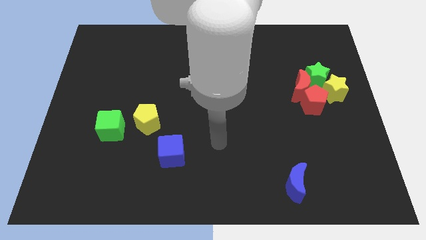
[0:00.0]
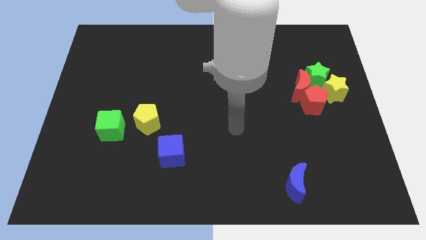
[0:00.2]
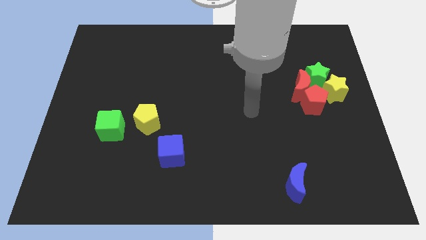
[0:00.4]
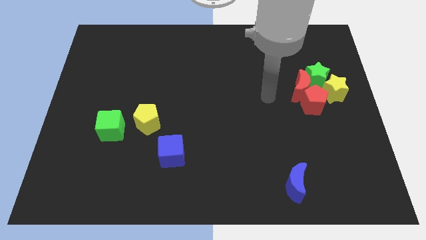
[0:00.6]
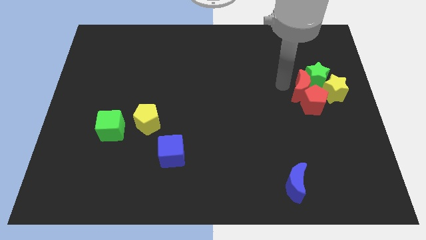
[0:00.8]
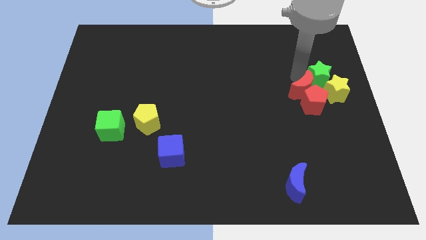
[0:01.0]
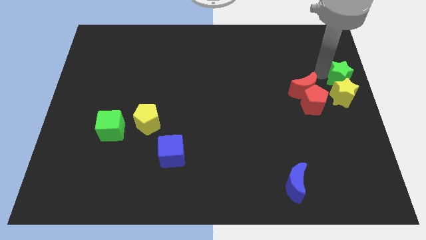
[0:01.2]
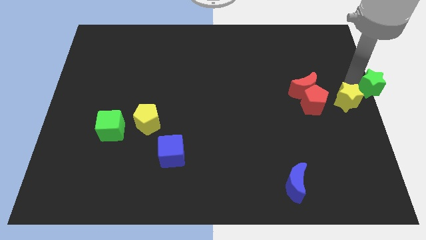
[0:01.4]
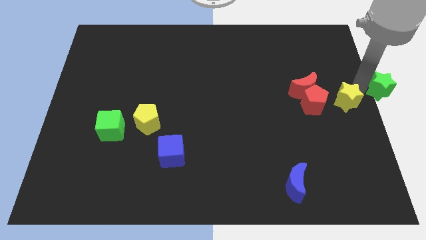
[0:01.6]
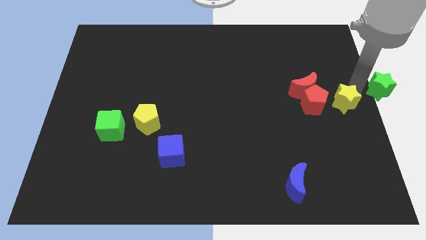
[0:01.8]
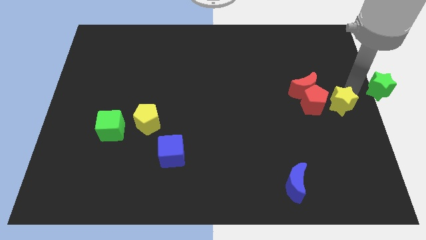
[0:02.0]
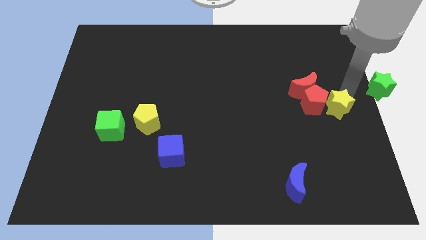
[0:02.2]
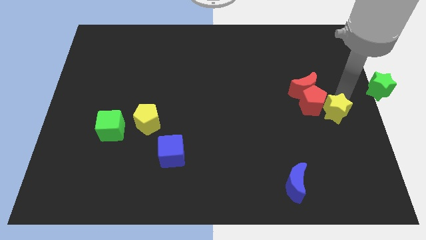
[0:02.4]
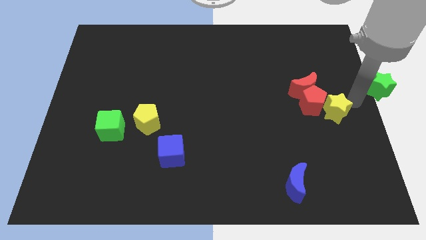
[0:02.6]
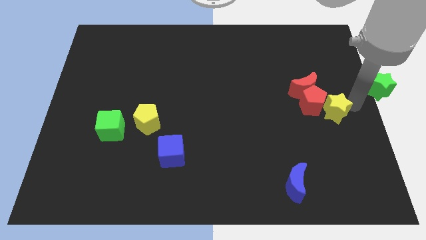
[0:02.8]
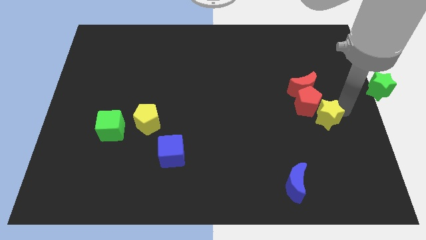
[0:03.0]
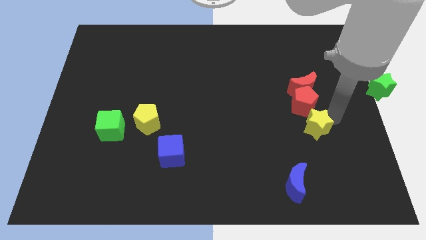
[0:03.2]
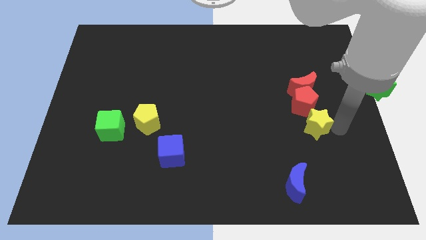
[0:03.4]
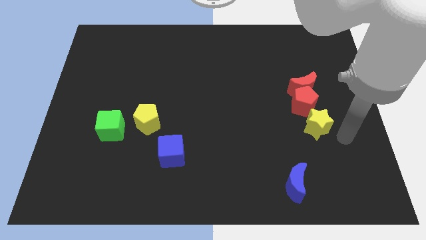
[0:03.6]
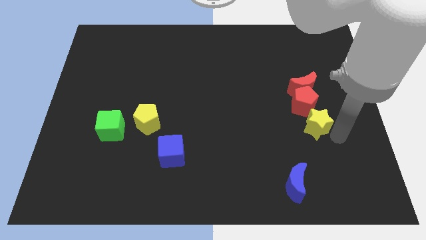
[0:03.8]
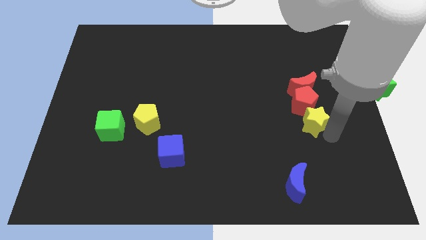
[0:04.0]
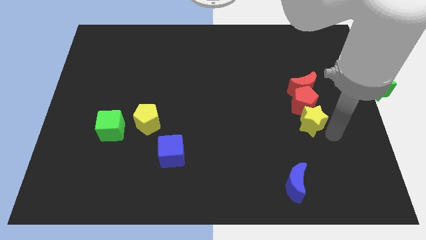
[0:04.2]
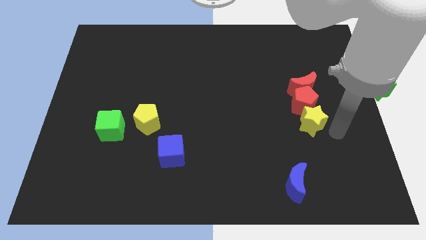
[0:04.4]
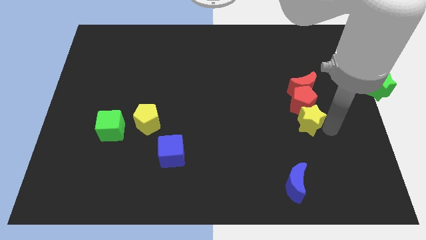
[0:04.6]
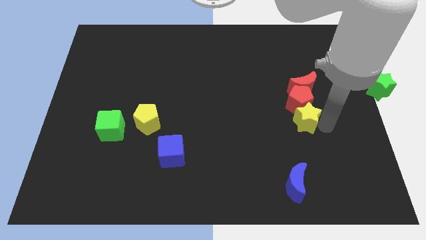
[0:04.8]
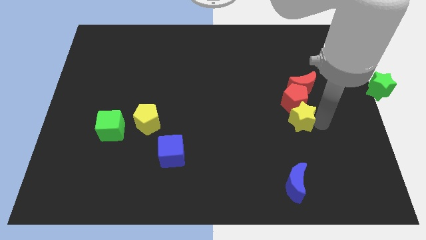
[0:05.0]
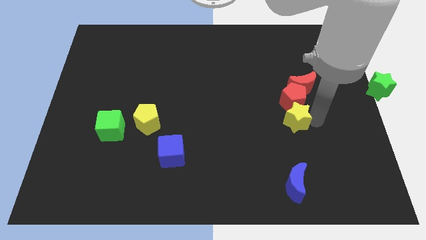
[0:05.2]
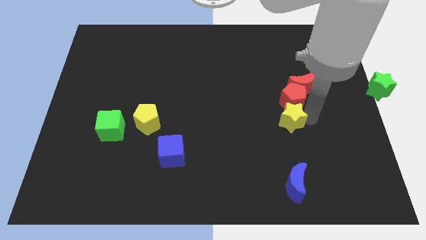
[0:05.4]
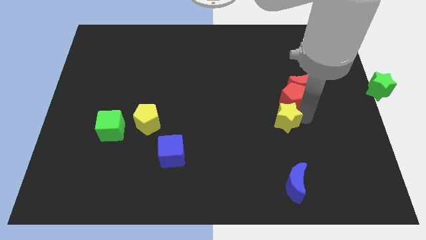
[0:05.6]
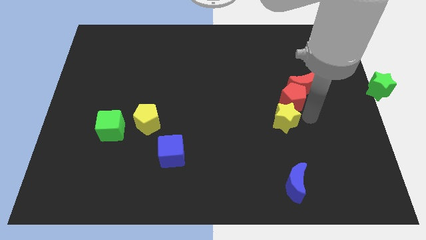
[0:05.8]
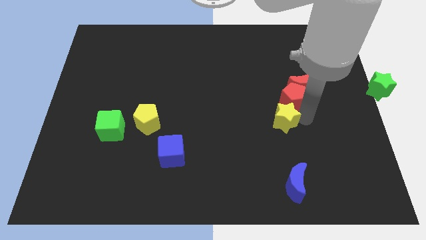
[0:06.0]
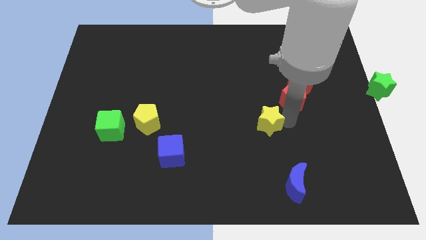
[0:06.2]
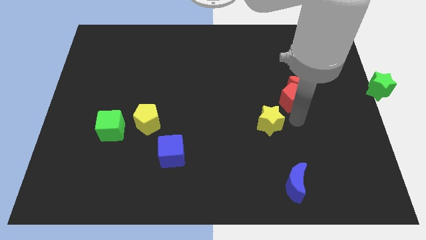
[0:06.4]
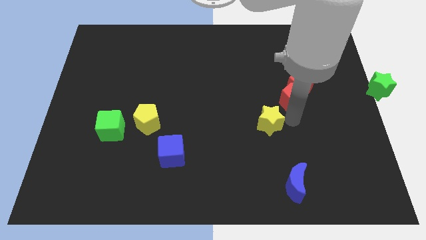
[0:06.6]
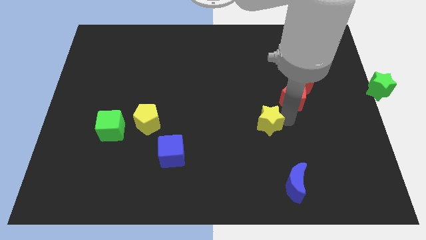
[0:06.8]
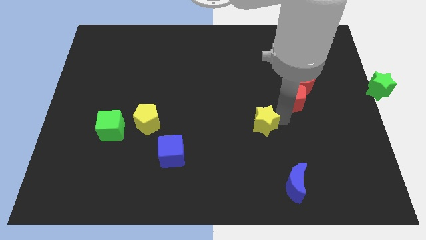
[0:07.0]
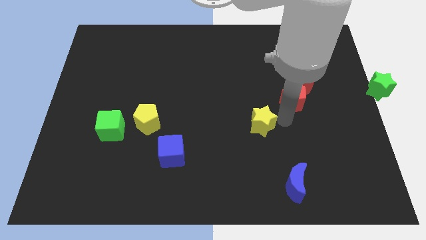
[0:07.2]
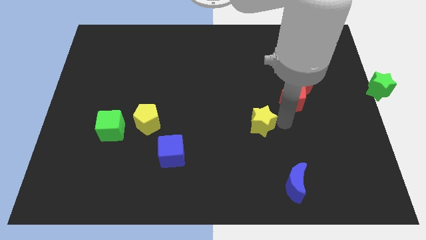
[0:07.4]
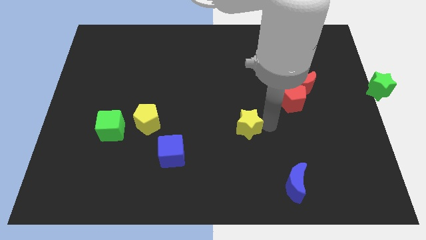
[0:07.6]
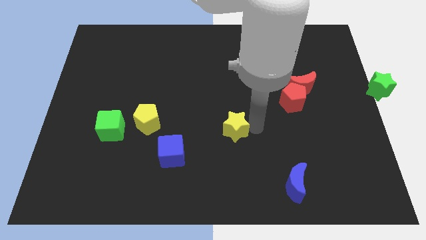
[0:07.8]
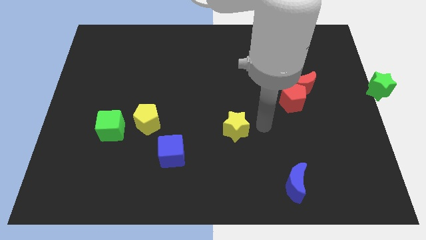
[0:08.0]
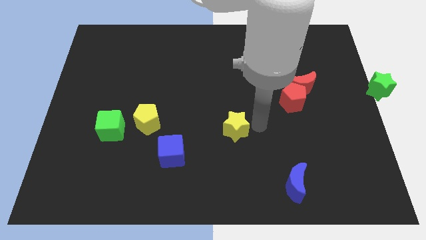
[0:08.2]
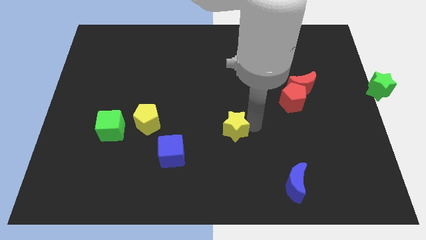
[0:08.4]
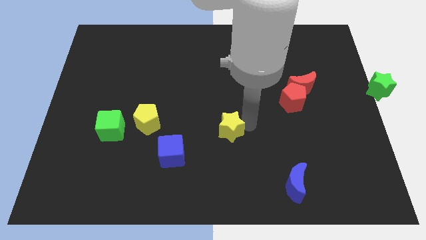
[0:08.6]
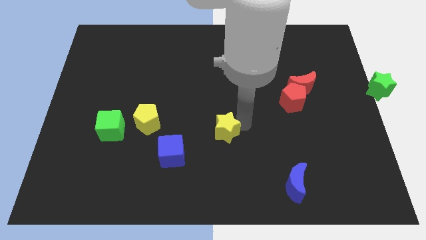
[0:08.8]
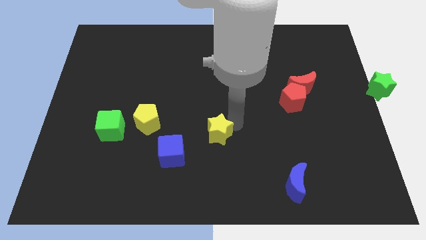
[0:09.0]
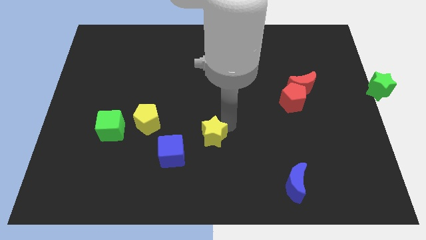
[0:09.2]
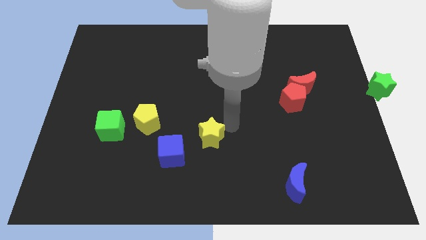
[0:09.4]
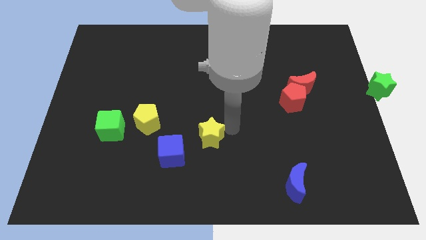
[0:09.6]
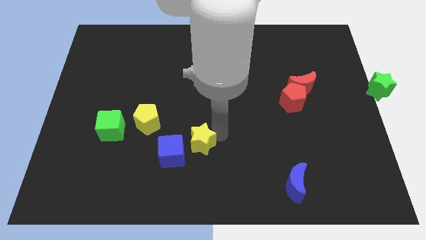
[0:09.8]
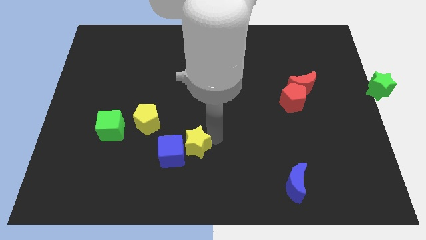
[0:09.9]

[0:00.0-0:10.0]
slide the yellow star next to the blue cube

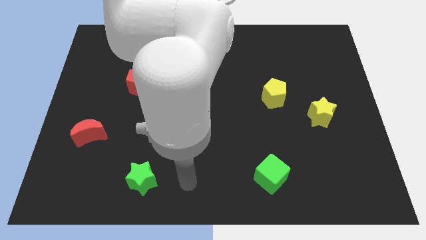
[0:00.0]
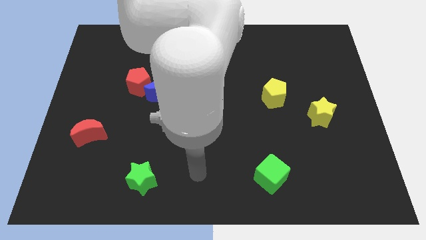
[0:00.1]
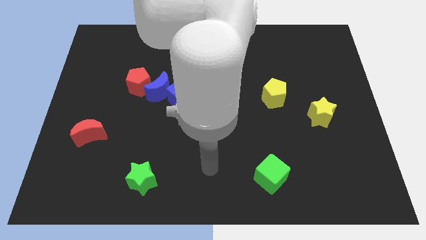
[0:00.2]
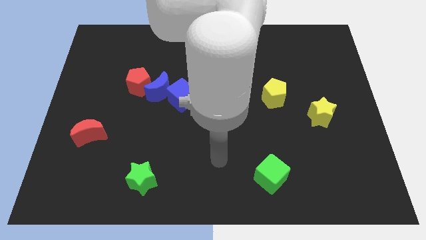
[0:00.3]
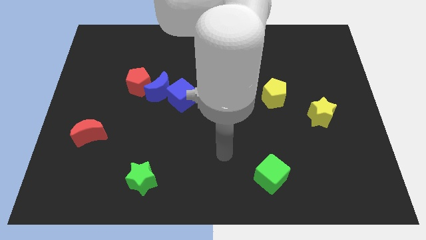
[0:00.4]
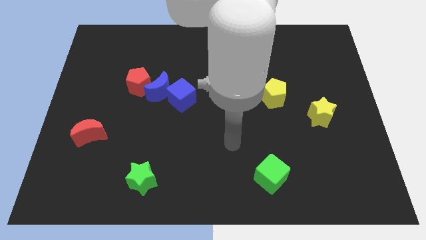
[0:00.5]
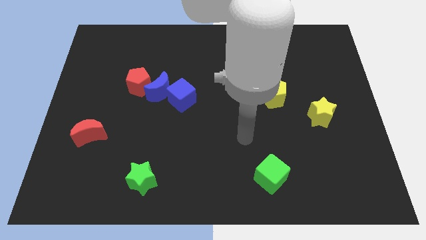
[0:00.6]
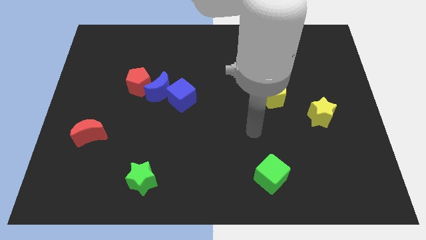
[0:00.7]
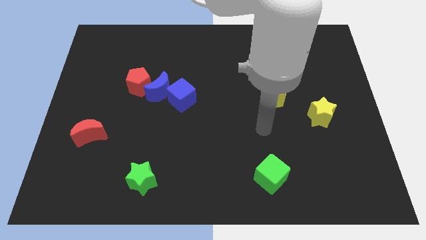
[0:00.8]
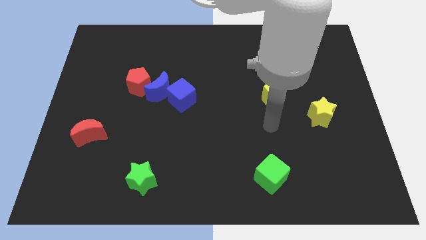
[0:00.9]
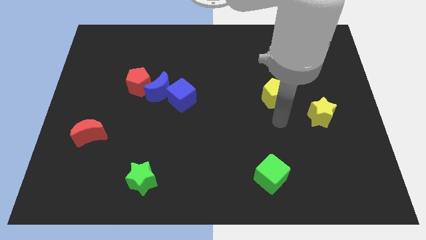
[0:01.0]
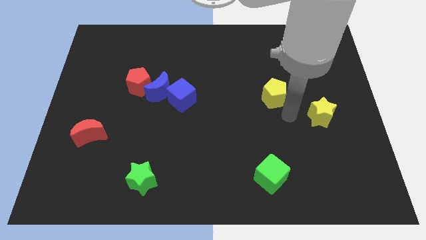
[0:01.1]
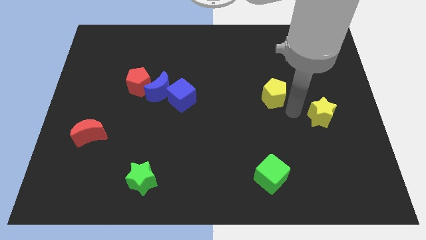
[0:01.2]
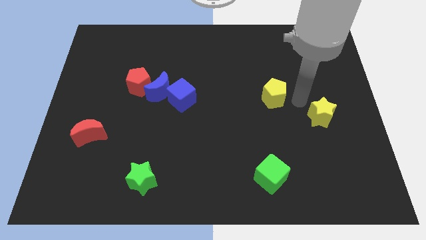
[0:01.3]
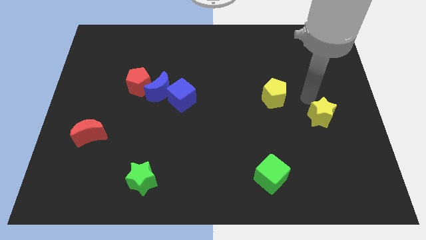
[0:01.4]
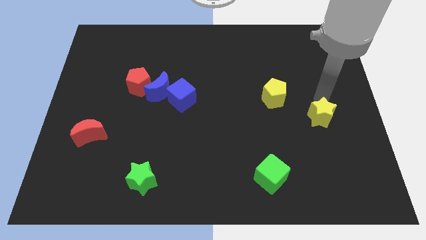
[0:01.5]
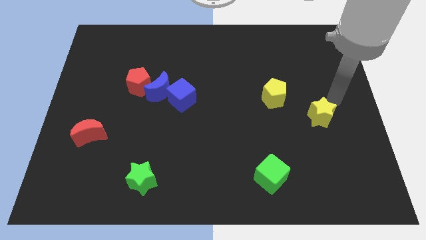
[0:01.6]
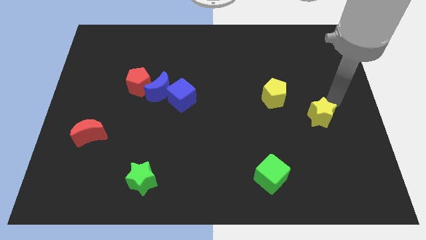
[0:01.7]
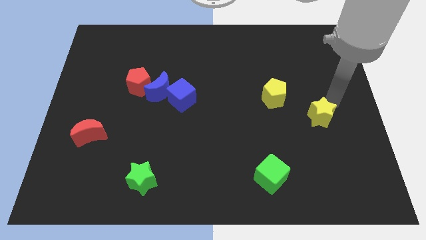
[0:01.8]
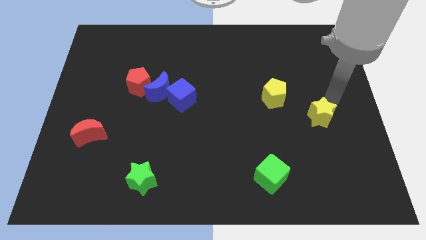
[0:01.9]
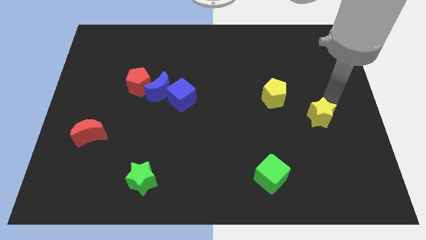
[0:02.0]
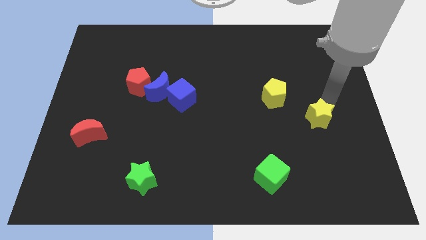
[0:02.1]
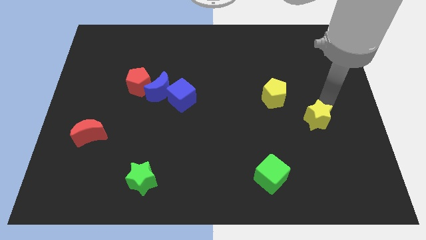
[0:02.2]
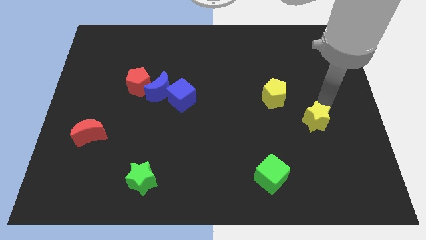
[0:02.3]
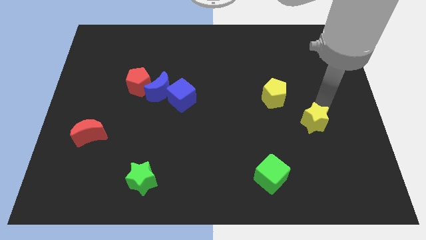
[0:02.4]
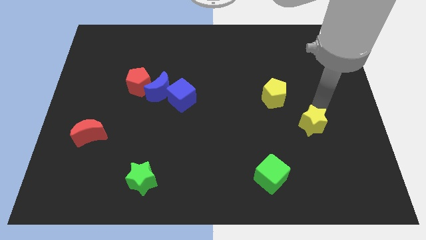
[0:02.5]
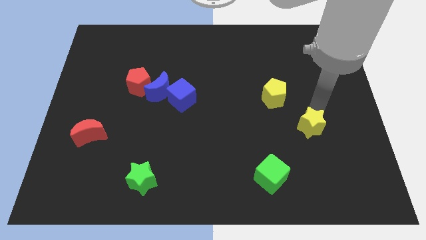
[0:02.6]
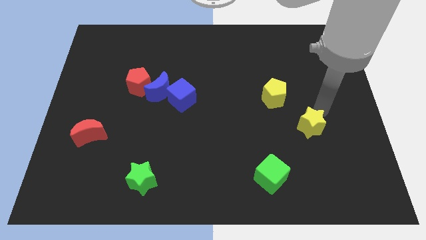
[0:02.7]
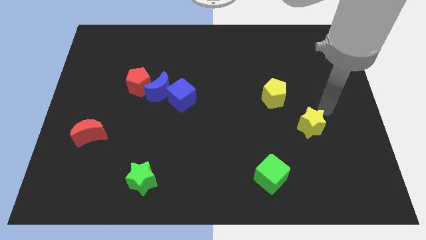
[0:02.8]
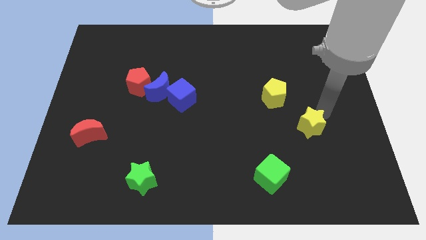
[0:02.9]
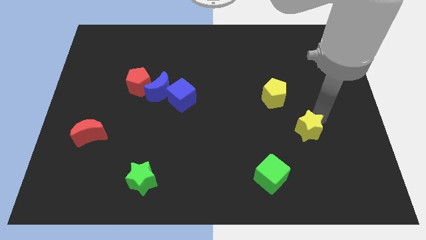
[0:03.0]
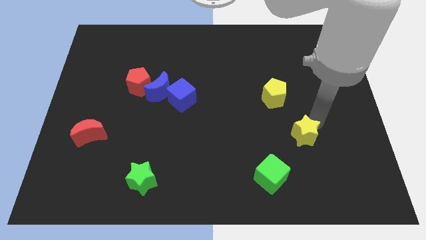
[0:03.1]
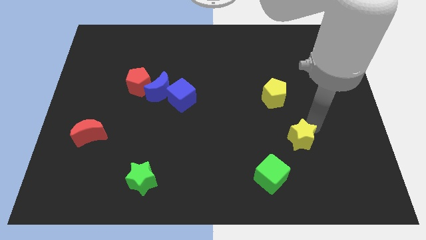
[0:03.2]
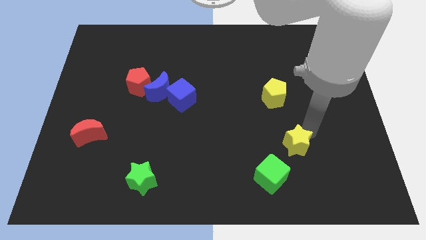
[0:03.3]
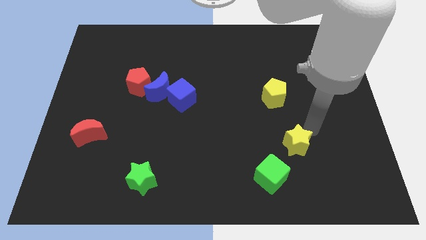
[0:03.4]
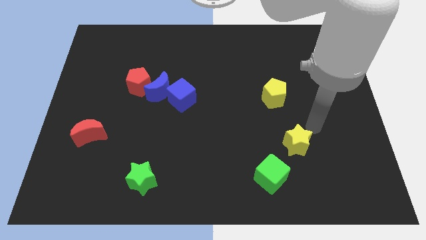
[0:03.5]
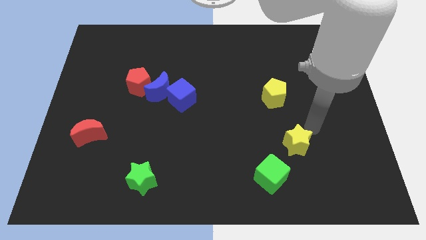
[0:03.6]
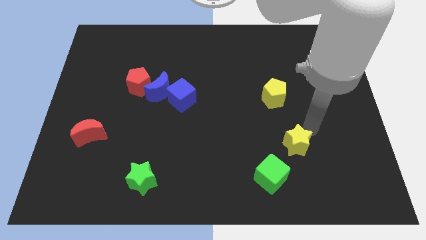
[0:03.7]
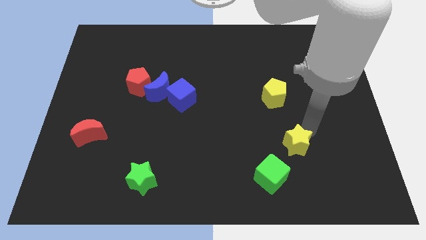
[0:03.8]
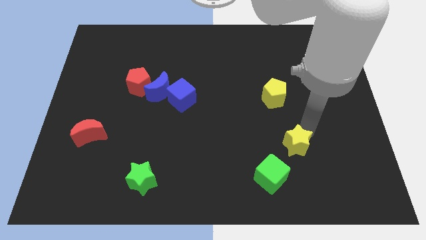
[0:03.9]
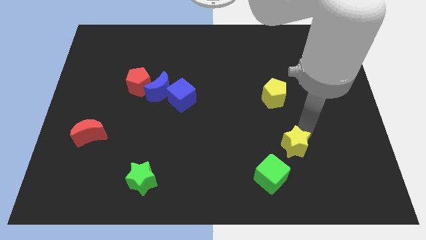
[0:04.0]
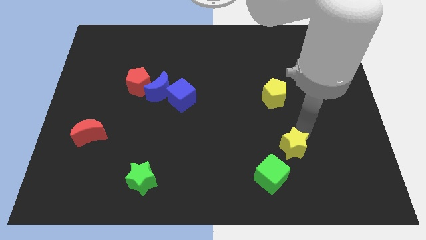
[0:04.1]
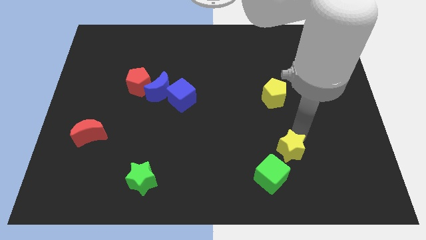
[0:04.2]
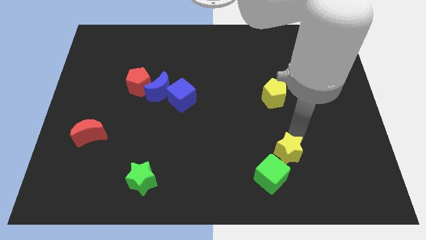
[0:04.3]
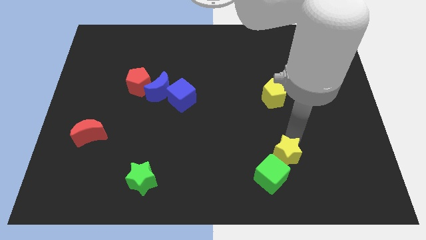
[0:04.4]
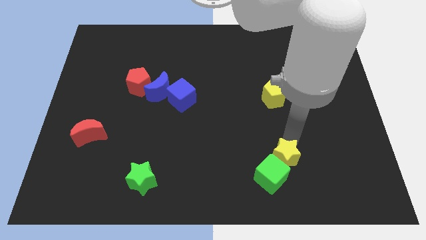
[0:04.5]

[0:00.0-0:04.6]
slide the yellow star towards the green cube
